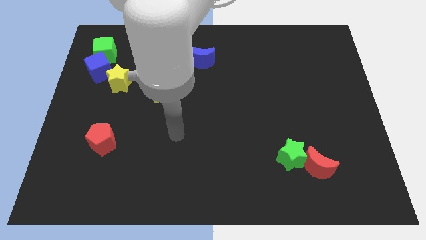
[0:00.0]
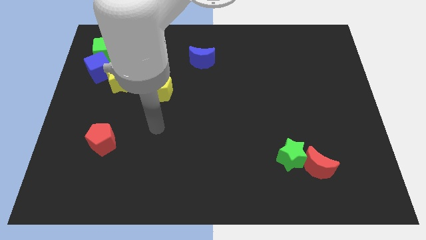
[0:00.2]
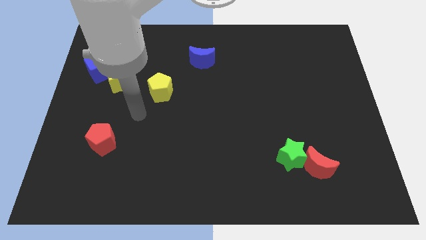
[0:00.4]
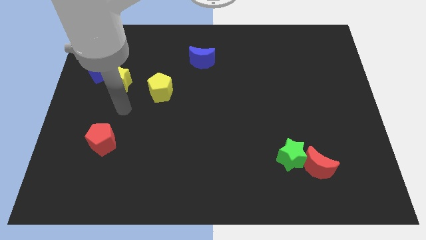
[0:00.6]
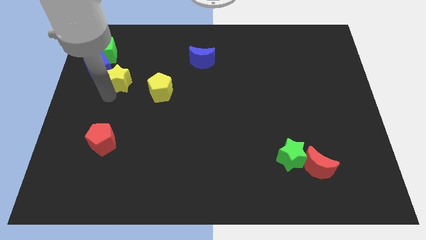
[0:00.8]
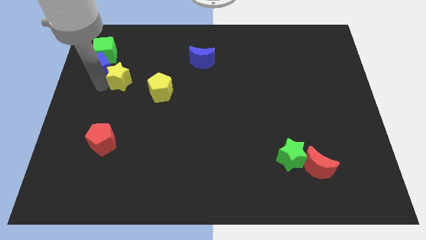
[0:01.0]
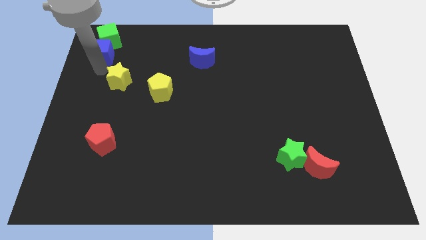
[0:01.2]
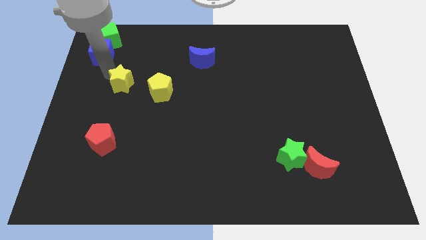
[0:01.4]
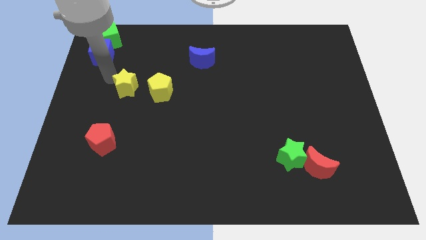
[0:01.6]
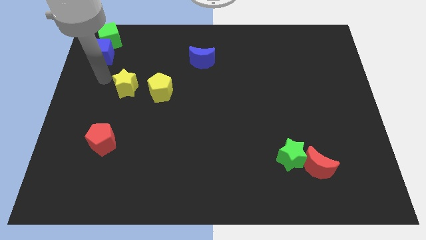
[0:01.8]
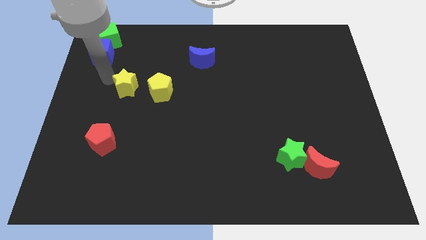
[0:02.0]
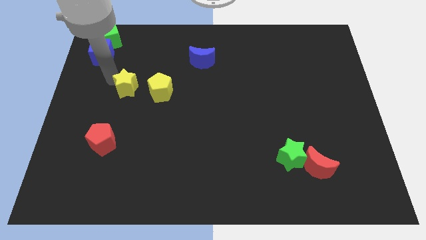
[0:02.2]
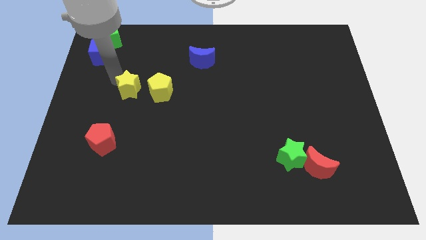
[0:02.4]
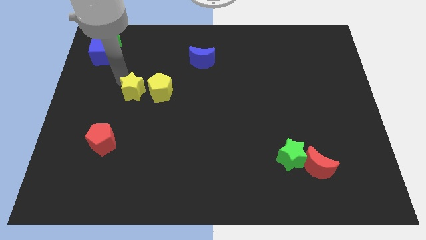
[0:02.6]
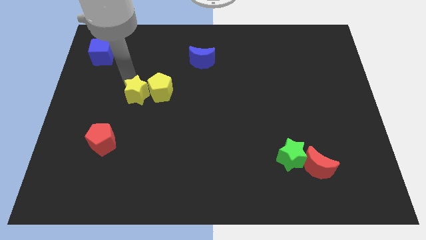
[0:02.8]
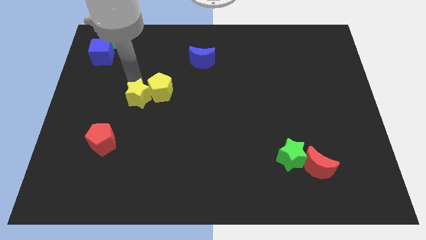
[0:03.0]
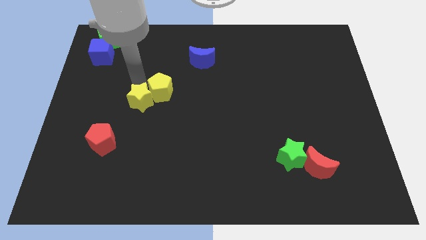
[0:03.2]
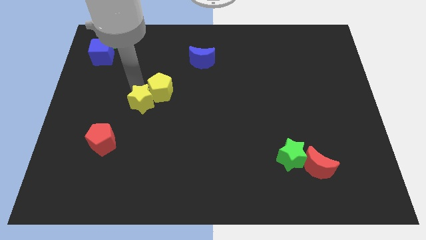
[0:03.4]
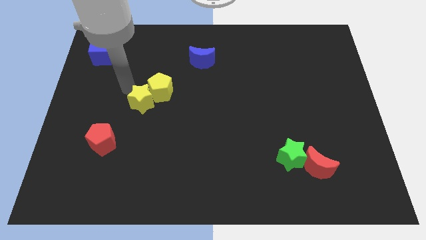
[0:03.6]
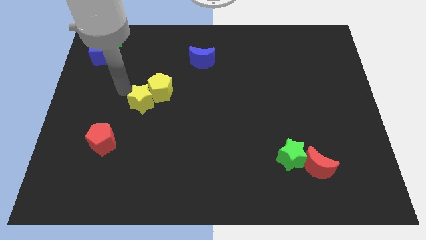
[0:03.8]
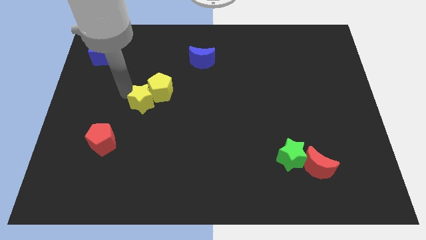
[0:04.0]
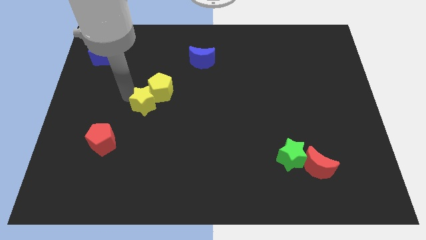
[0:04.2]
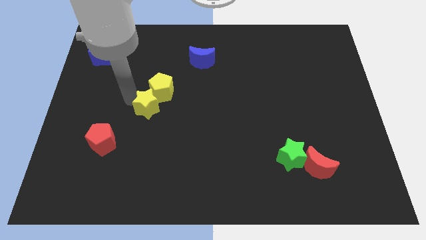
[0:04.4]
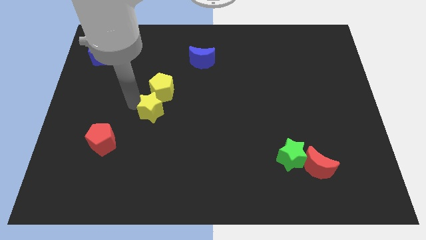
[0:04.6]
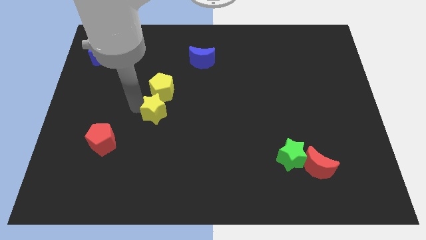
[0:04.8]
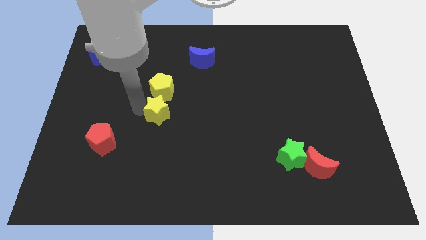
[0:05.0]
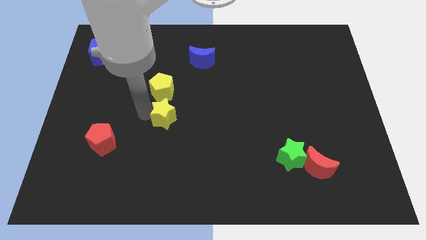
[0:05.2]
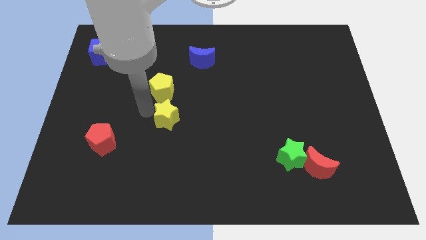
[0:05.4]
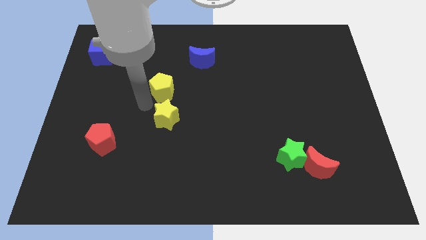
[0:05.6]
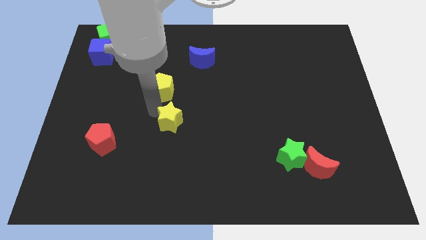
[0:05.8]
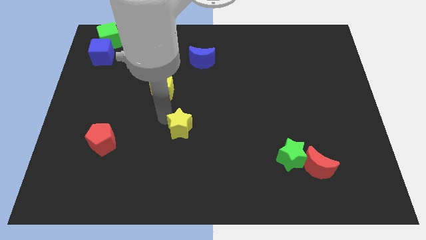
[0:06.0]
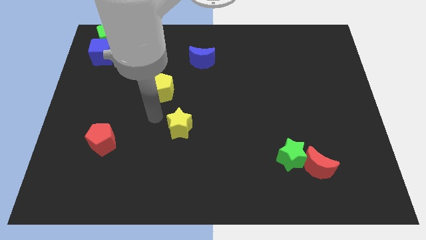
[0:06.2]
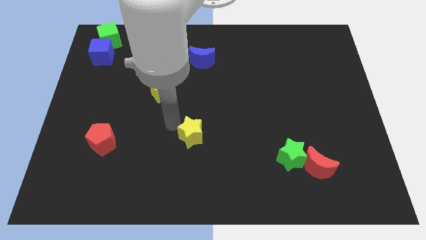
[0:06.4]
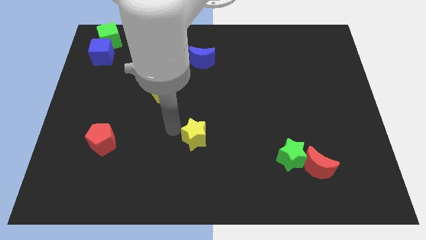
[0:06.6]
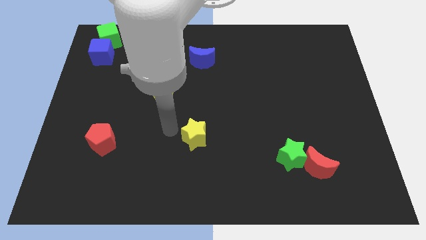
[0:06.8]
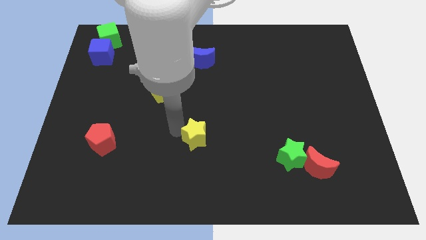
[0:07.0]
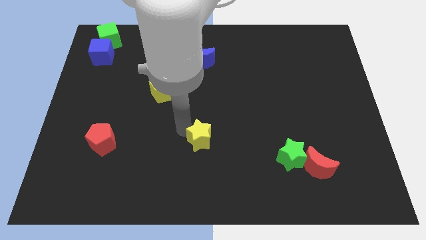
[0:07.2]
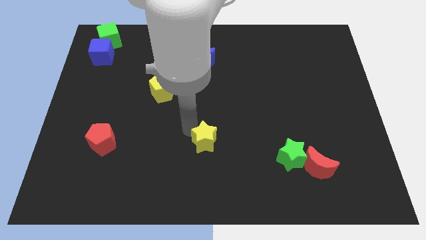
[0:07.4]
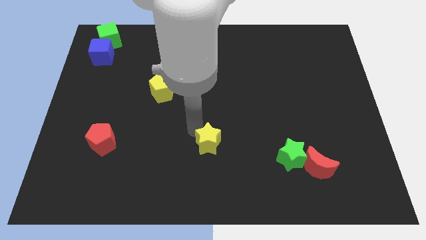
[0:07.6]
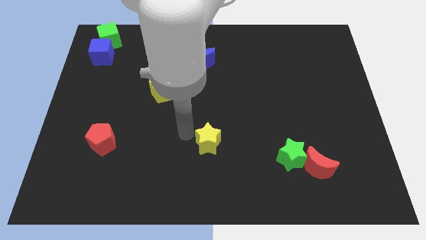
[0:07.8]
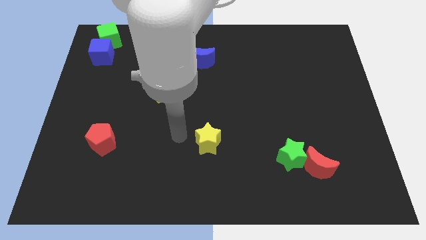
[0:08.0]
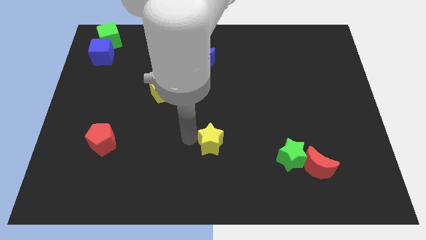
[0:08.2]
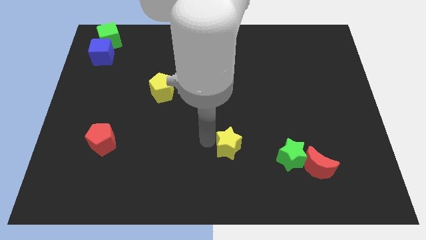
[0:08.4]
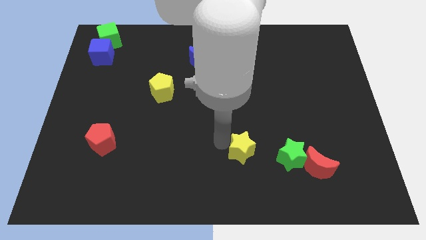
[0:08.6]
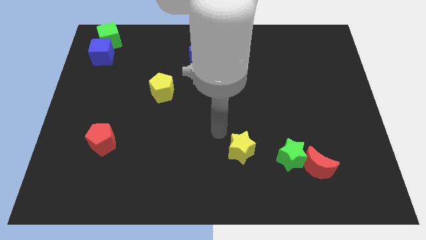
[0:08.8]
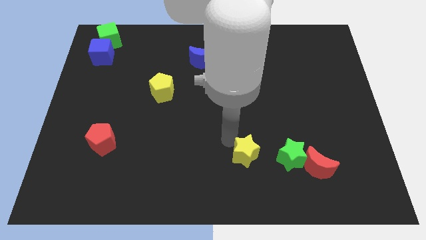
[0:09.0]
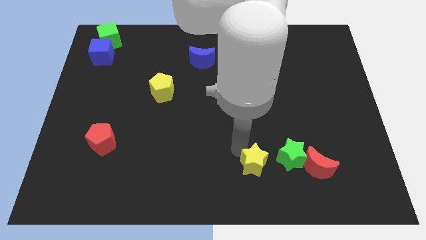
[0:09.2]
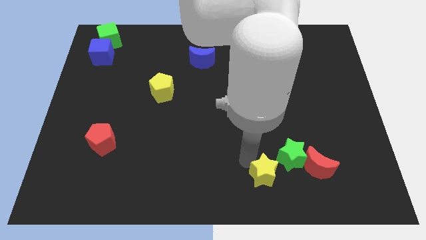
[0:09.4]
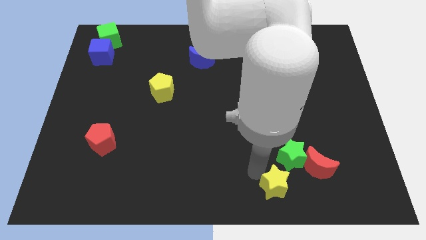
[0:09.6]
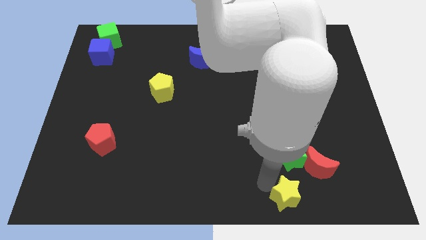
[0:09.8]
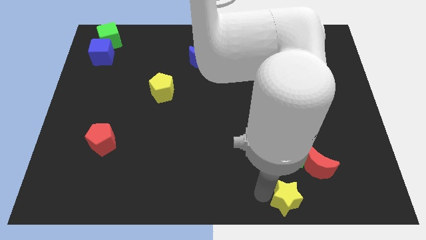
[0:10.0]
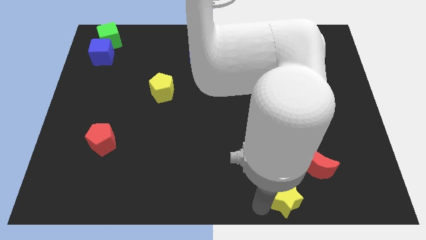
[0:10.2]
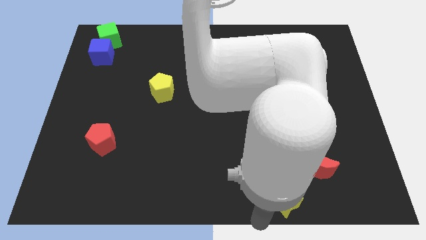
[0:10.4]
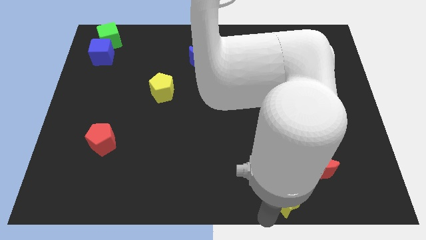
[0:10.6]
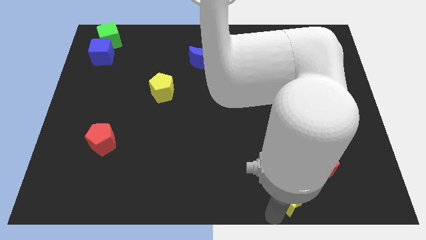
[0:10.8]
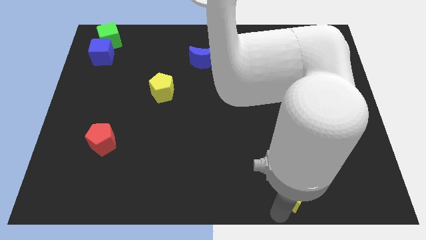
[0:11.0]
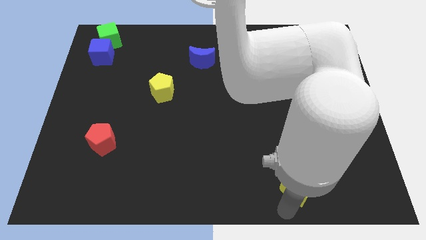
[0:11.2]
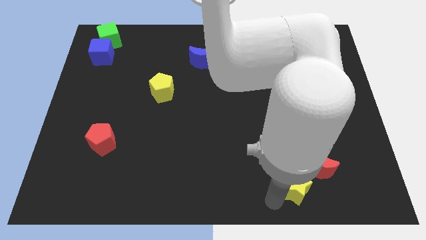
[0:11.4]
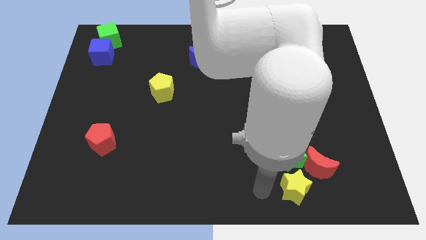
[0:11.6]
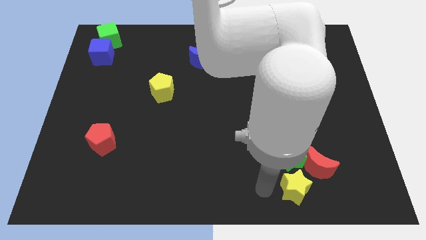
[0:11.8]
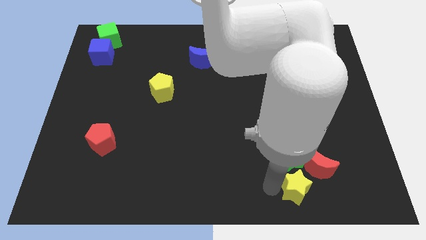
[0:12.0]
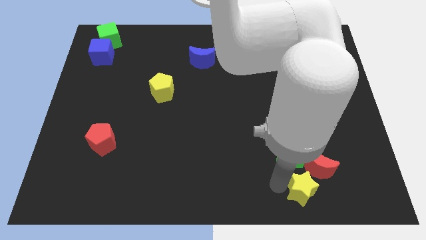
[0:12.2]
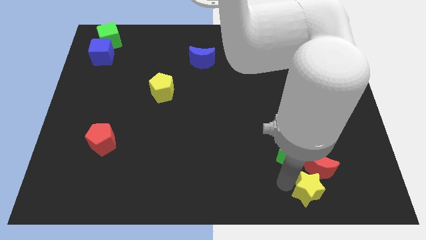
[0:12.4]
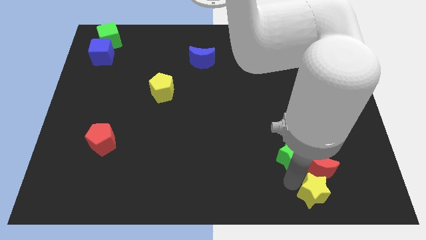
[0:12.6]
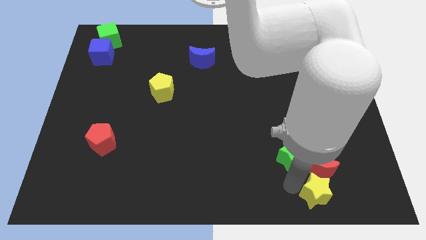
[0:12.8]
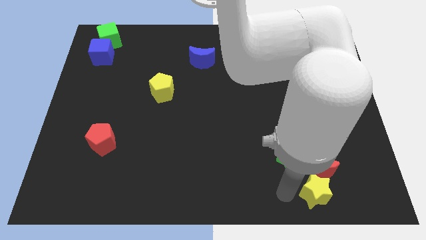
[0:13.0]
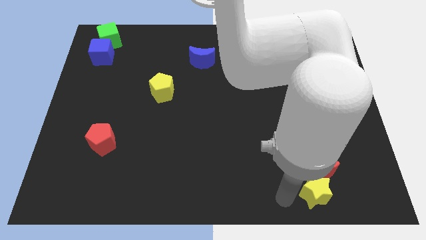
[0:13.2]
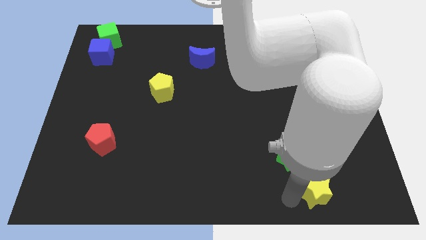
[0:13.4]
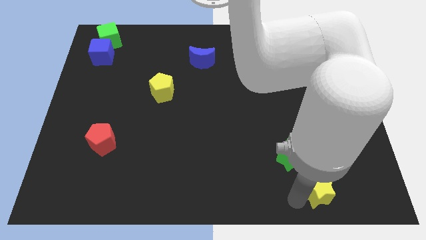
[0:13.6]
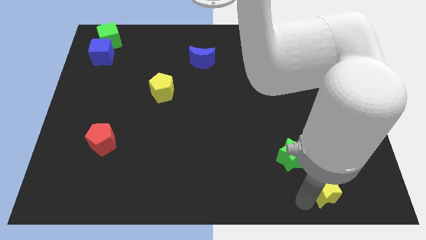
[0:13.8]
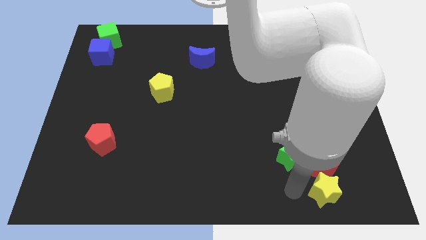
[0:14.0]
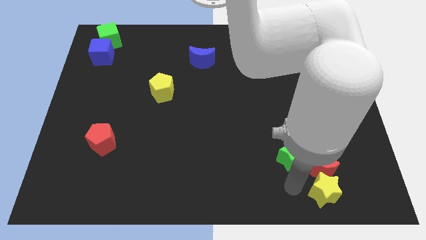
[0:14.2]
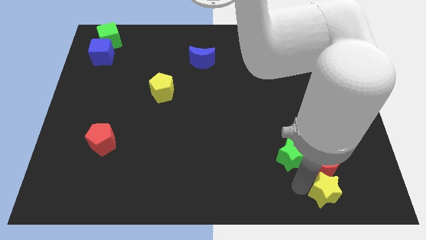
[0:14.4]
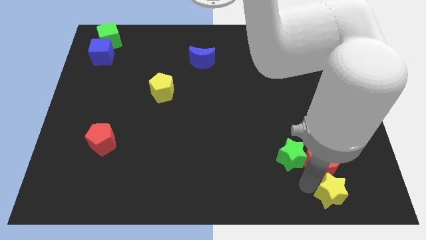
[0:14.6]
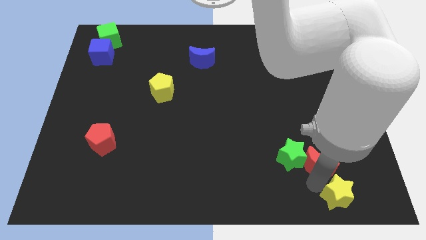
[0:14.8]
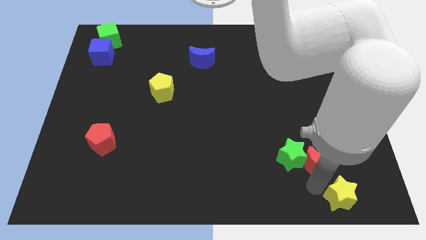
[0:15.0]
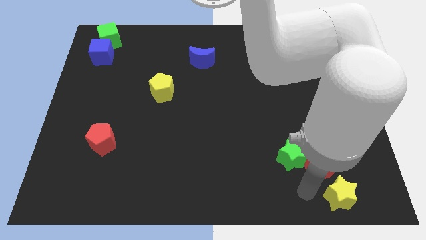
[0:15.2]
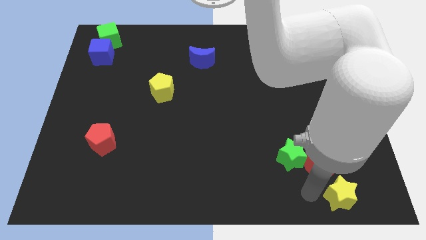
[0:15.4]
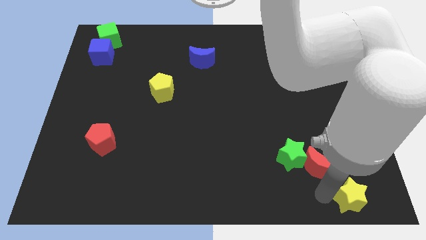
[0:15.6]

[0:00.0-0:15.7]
put the yellow star to the bottom right of the board
